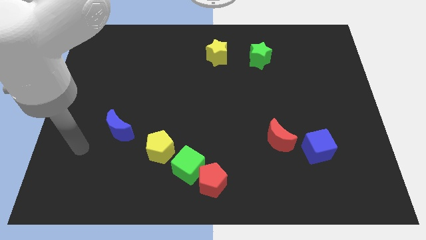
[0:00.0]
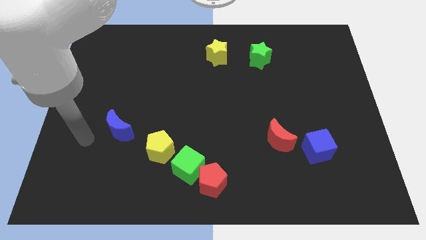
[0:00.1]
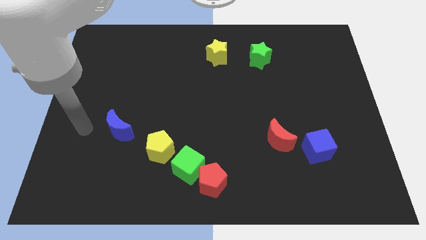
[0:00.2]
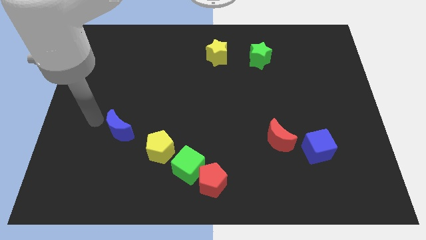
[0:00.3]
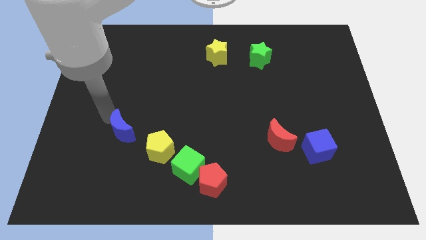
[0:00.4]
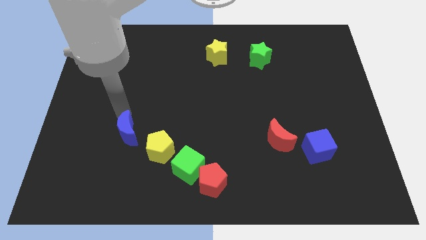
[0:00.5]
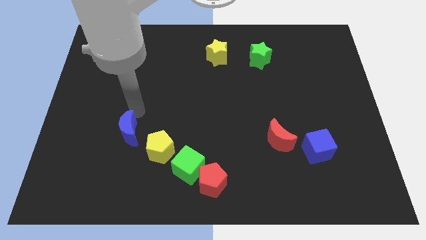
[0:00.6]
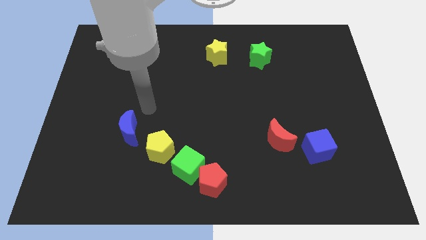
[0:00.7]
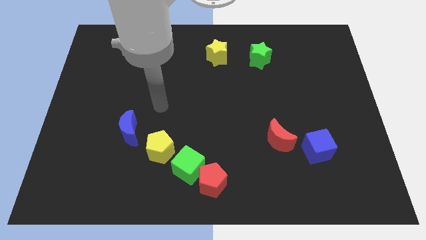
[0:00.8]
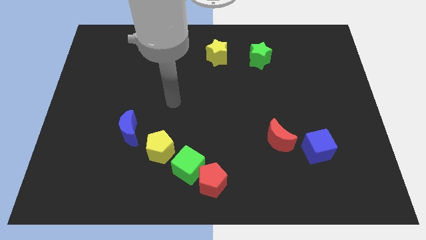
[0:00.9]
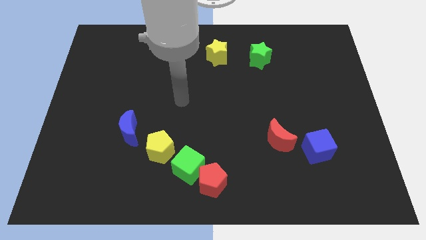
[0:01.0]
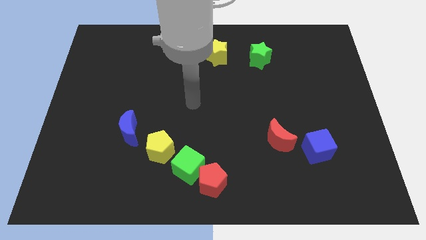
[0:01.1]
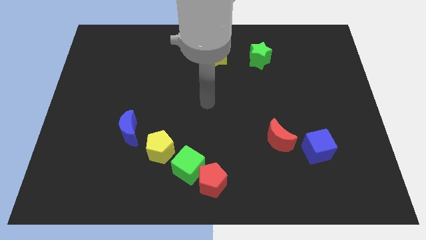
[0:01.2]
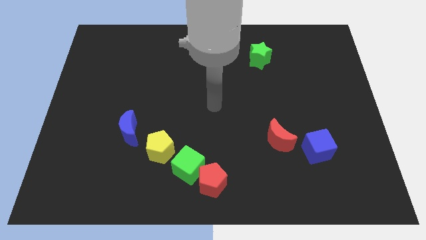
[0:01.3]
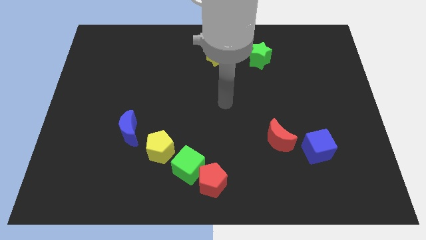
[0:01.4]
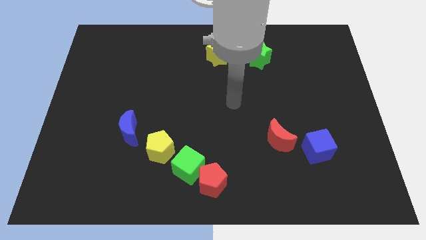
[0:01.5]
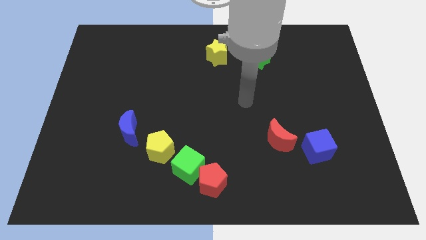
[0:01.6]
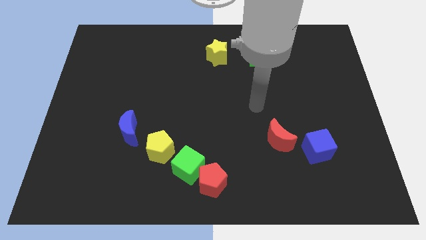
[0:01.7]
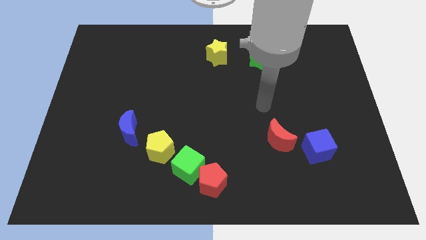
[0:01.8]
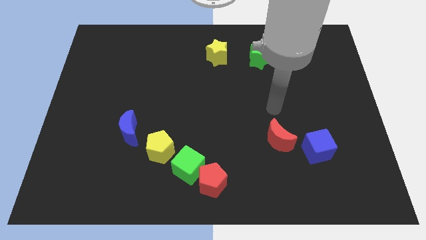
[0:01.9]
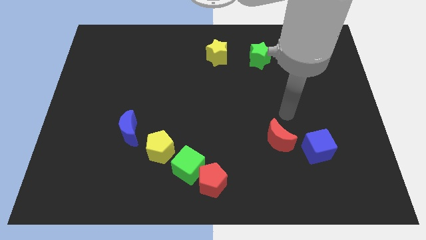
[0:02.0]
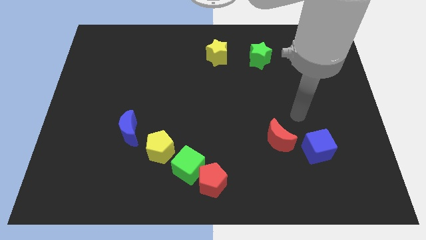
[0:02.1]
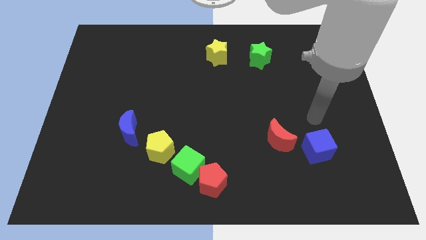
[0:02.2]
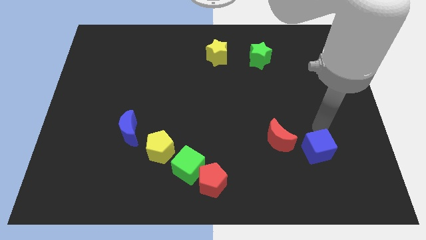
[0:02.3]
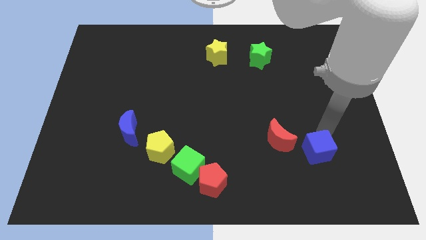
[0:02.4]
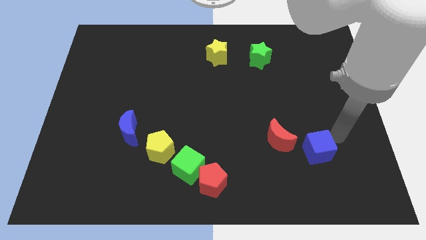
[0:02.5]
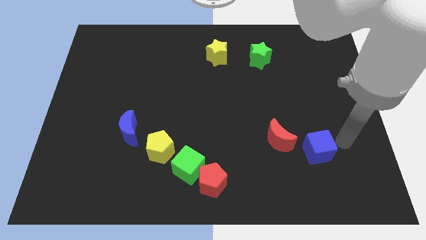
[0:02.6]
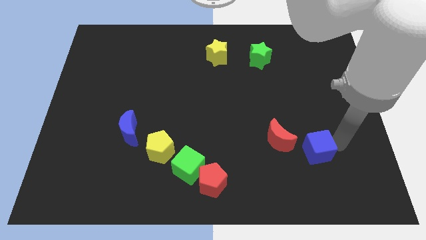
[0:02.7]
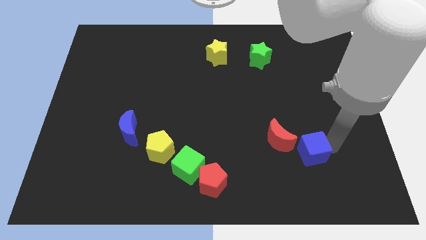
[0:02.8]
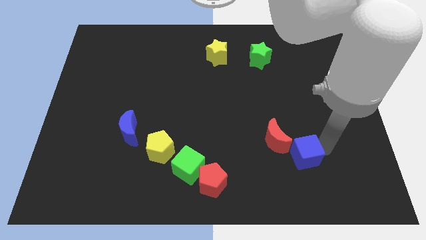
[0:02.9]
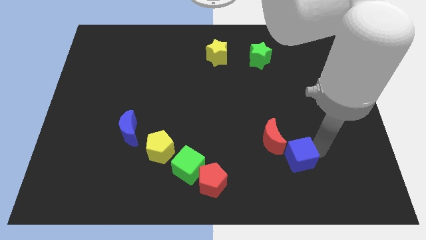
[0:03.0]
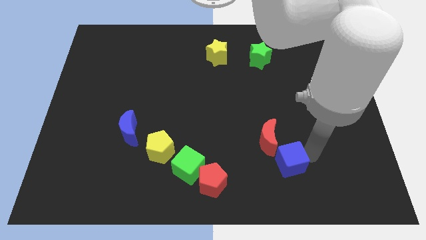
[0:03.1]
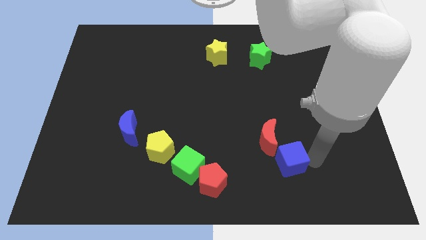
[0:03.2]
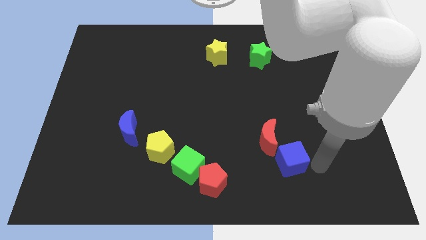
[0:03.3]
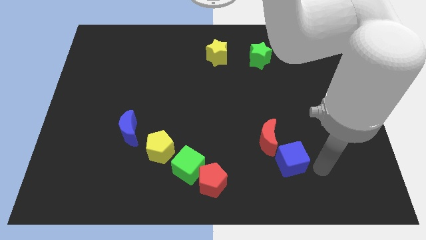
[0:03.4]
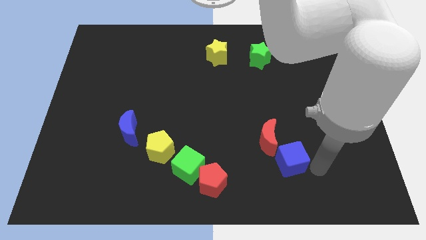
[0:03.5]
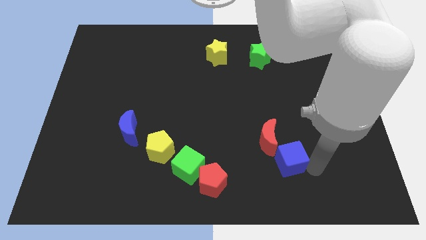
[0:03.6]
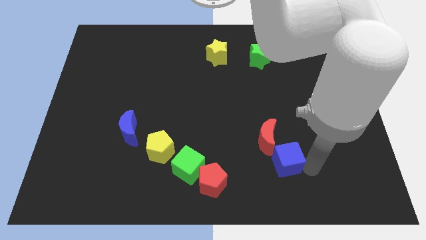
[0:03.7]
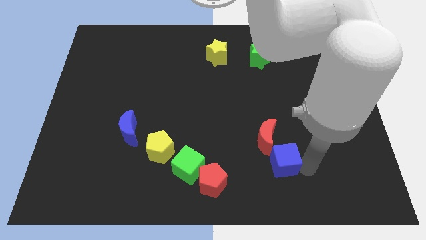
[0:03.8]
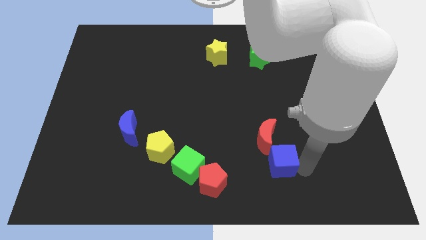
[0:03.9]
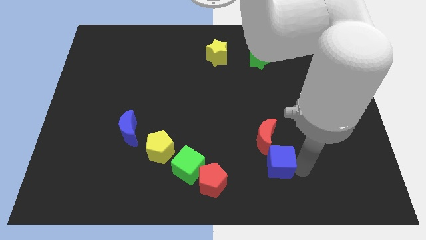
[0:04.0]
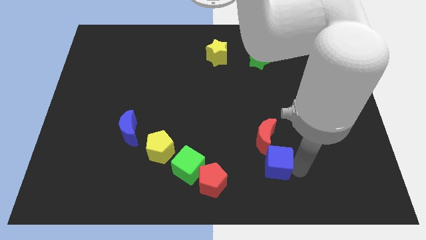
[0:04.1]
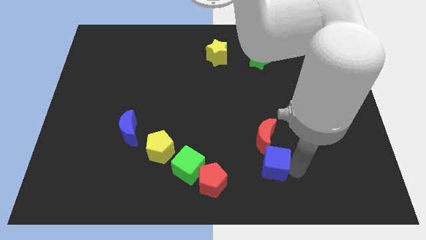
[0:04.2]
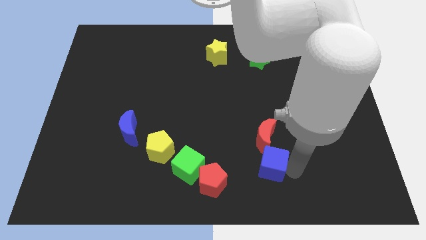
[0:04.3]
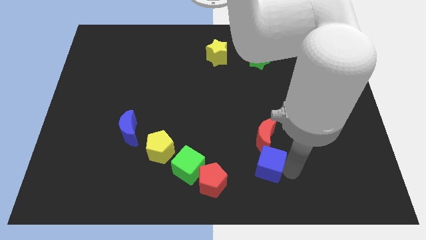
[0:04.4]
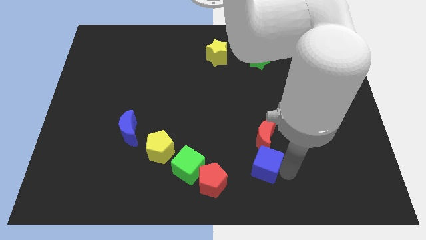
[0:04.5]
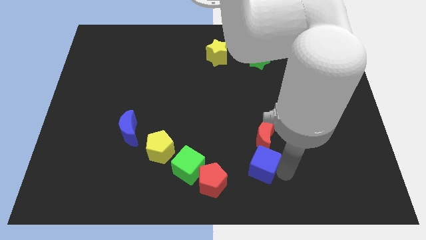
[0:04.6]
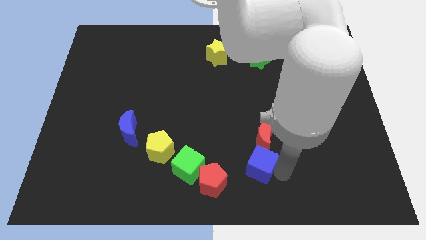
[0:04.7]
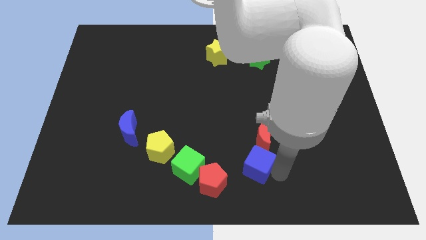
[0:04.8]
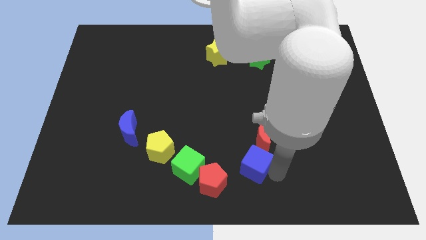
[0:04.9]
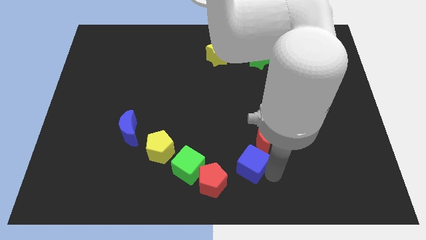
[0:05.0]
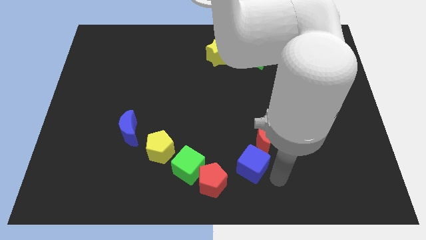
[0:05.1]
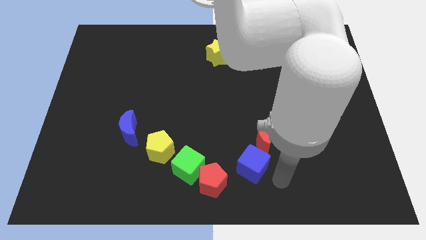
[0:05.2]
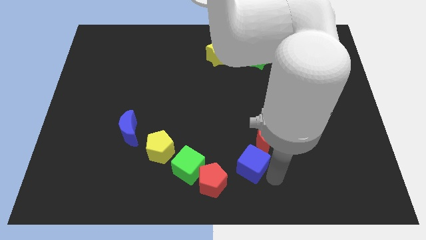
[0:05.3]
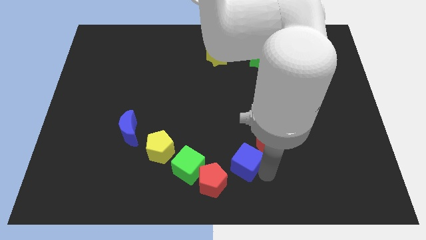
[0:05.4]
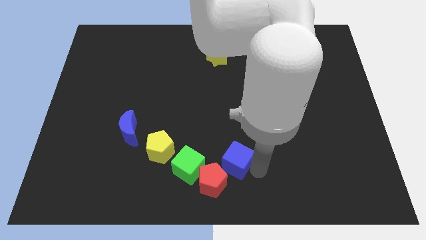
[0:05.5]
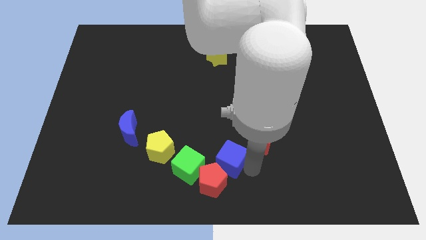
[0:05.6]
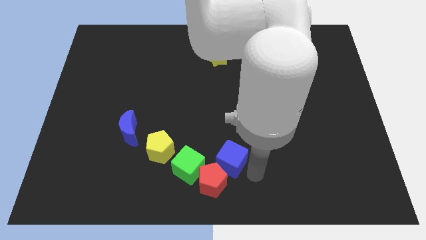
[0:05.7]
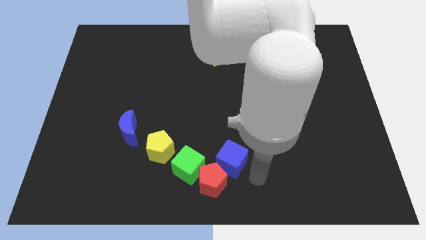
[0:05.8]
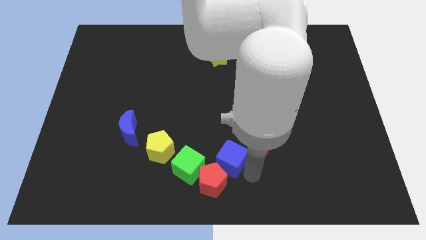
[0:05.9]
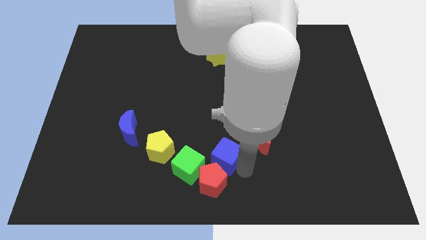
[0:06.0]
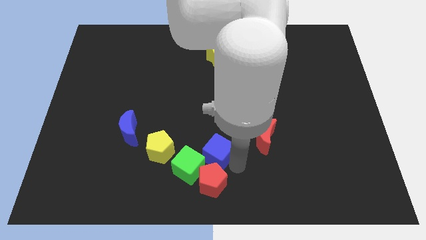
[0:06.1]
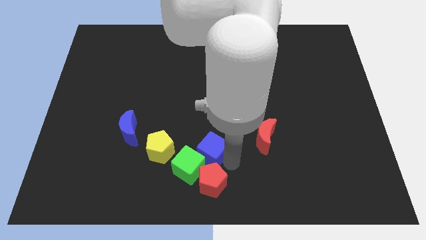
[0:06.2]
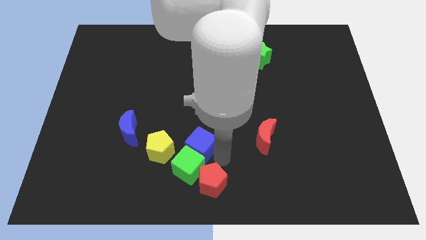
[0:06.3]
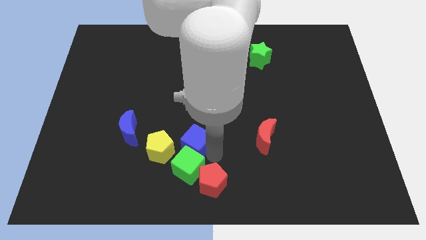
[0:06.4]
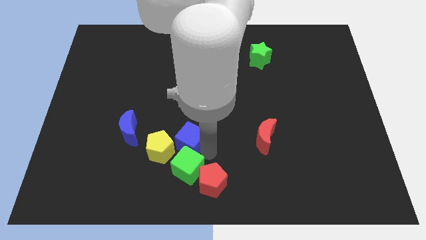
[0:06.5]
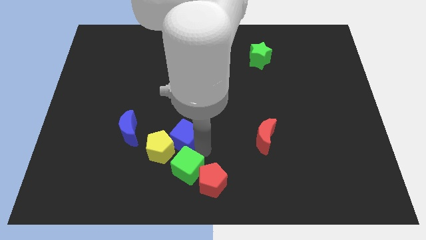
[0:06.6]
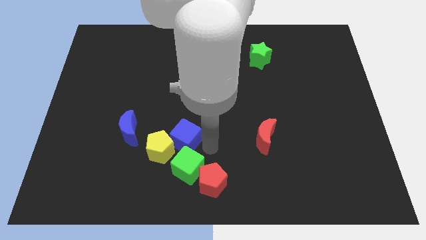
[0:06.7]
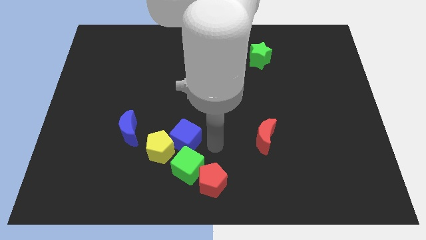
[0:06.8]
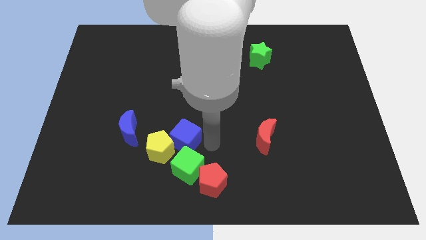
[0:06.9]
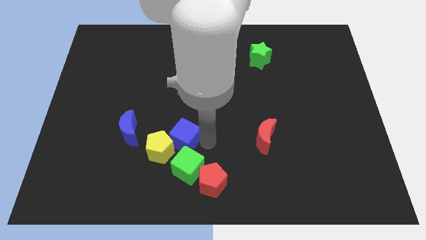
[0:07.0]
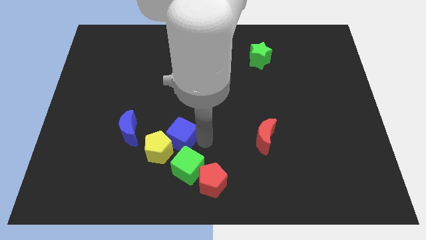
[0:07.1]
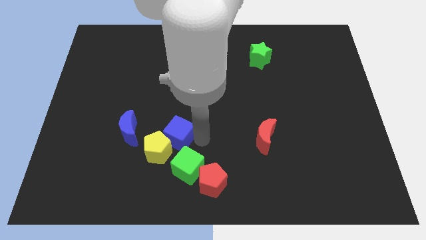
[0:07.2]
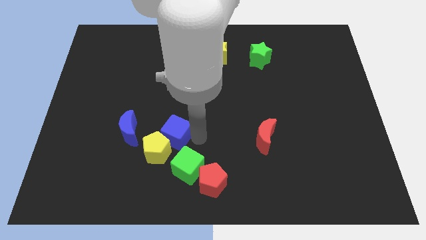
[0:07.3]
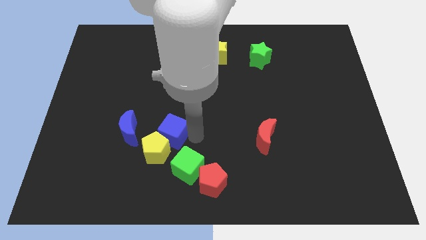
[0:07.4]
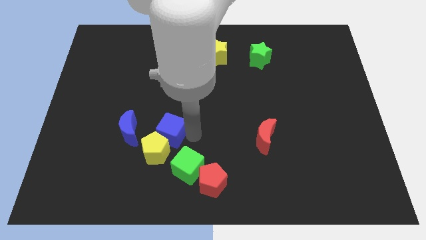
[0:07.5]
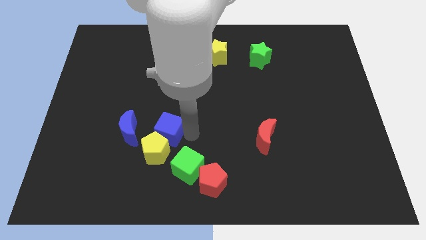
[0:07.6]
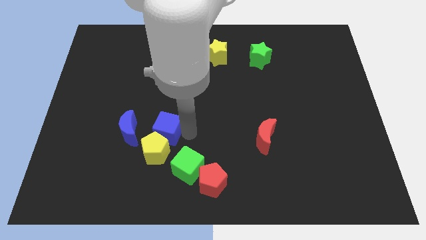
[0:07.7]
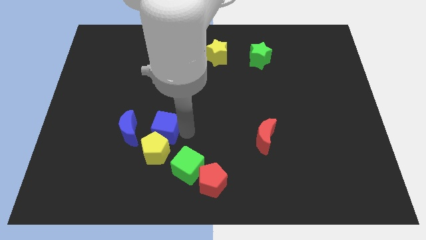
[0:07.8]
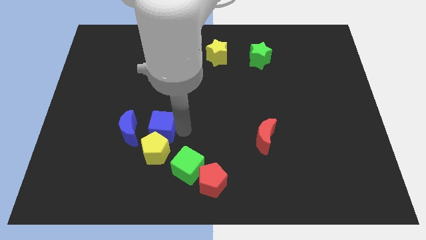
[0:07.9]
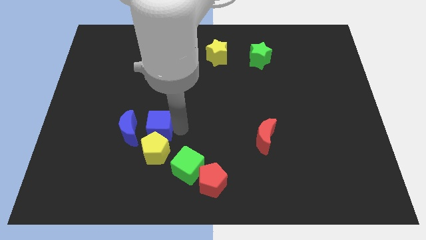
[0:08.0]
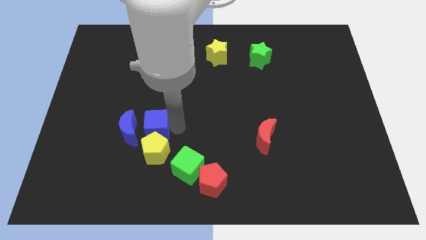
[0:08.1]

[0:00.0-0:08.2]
push the blue cube next to the blue moon
